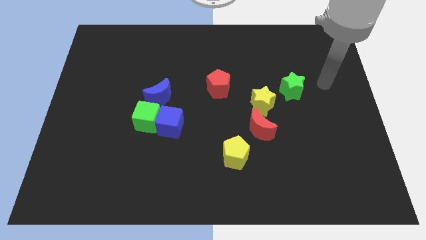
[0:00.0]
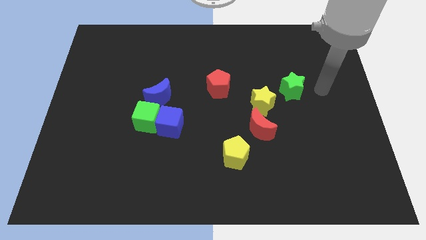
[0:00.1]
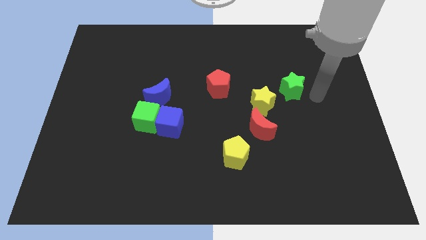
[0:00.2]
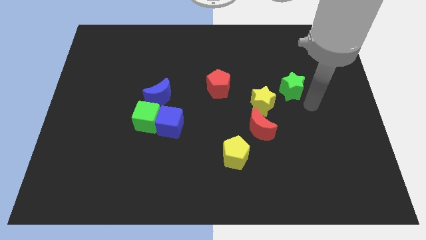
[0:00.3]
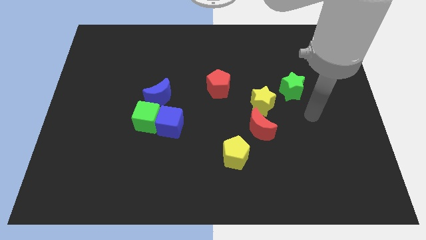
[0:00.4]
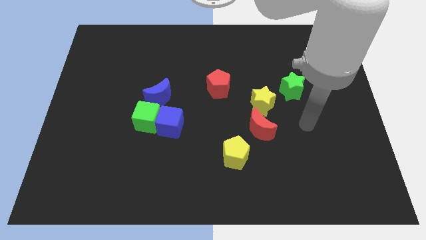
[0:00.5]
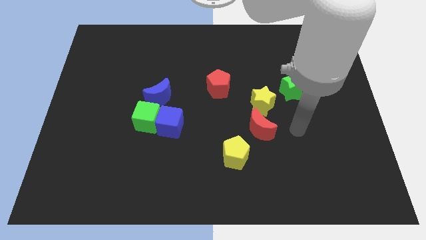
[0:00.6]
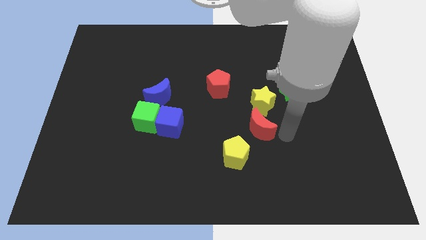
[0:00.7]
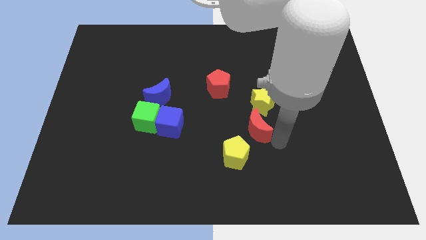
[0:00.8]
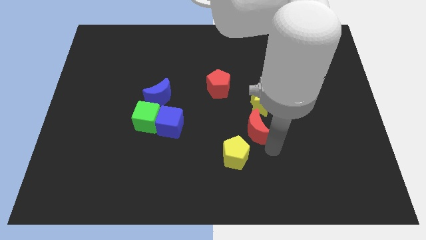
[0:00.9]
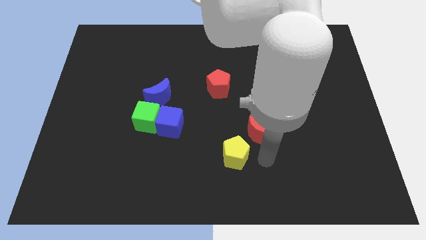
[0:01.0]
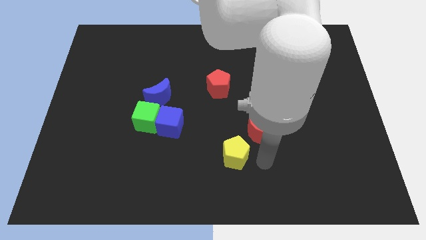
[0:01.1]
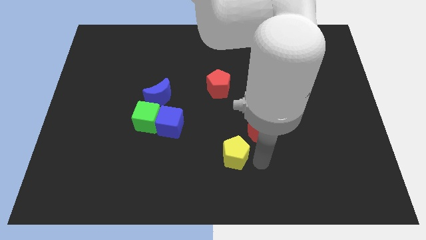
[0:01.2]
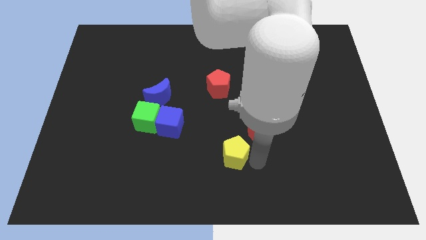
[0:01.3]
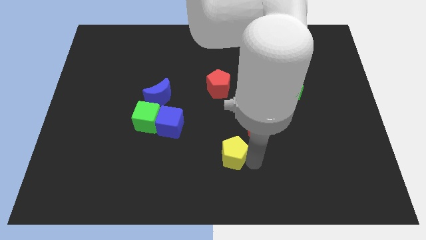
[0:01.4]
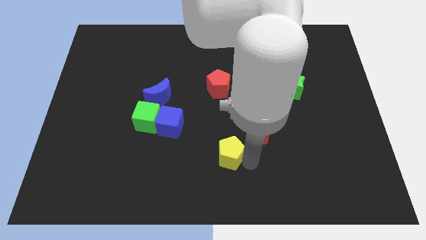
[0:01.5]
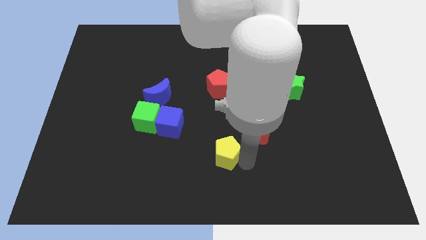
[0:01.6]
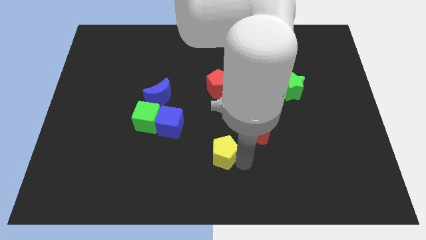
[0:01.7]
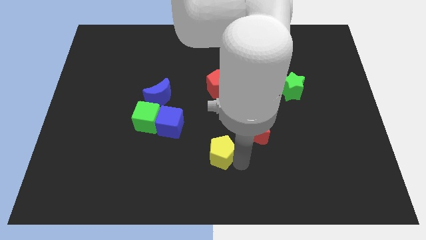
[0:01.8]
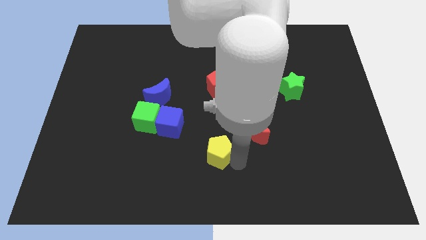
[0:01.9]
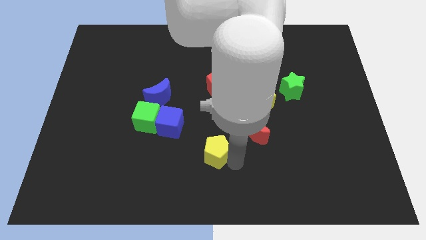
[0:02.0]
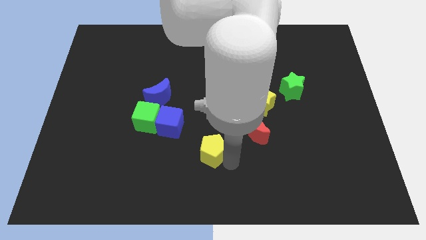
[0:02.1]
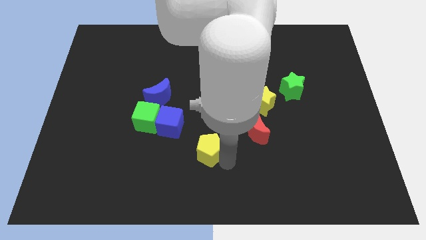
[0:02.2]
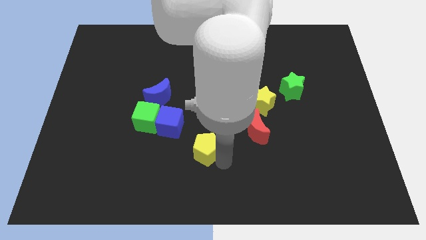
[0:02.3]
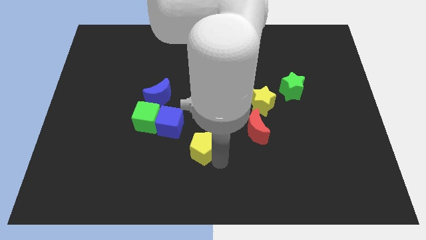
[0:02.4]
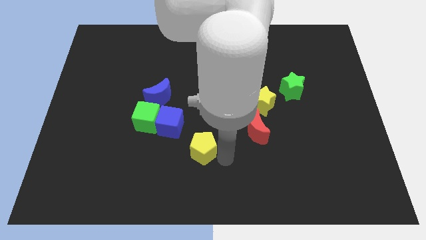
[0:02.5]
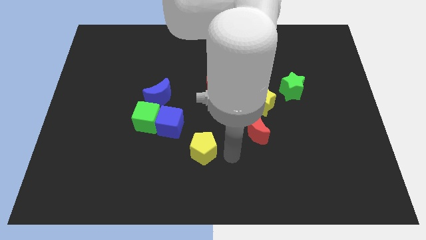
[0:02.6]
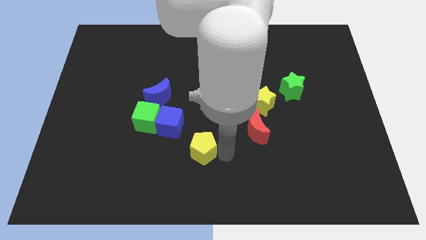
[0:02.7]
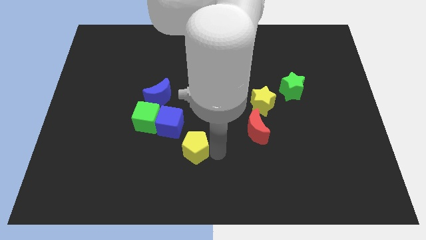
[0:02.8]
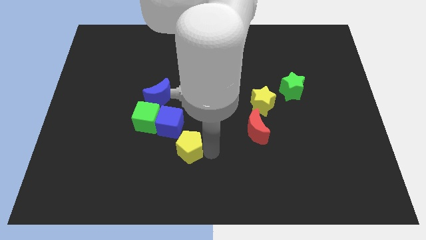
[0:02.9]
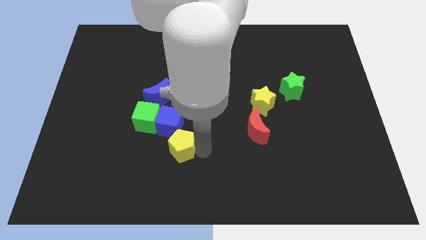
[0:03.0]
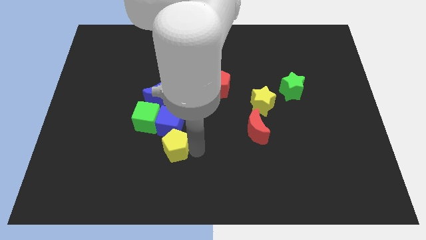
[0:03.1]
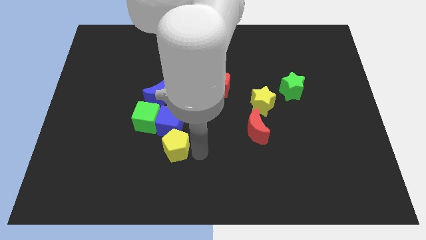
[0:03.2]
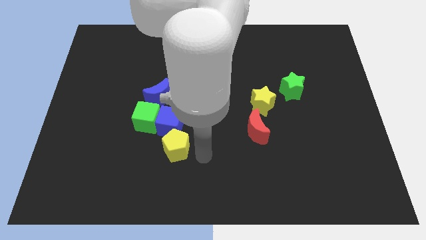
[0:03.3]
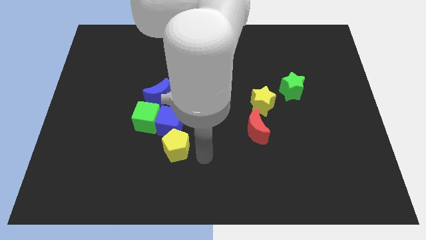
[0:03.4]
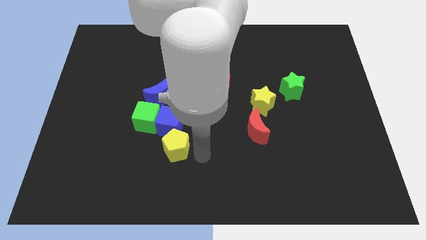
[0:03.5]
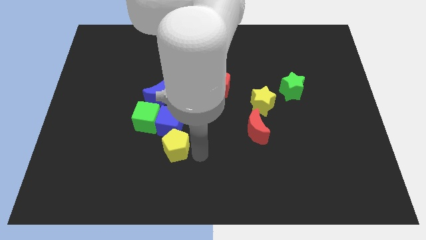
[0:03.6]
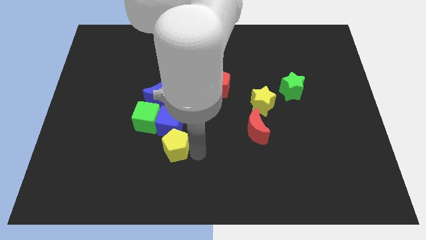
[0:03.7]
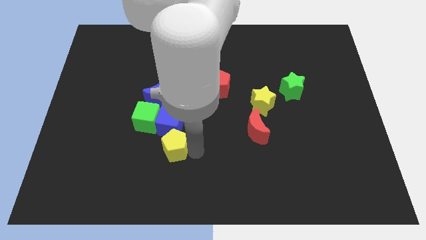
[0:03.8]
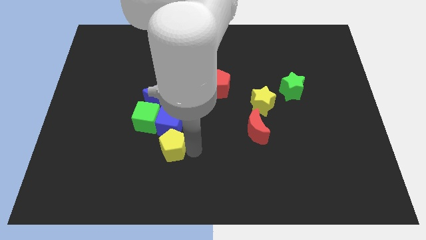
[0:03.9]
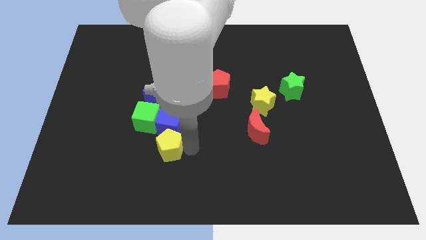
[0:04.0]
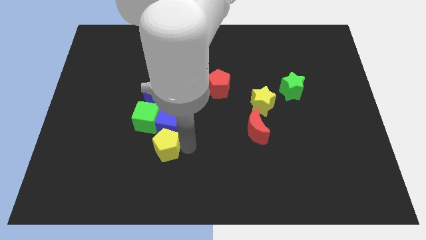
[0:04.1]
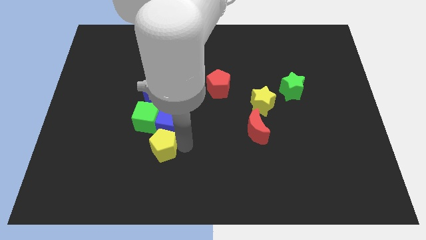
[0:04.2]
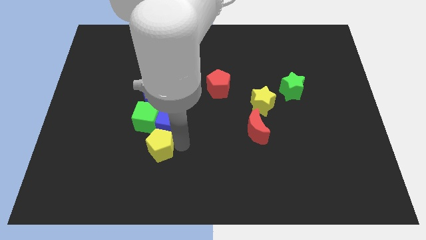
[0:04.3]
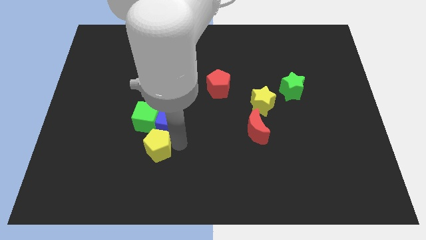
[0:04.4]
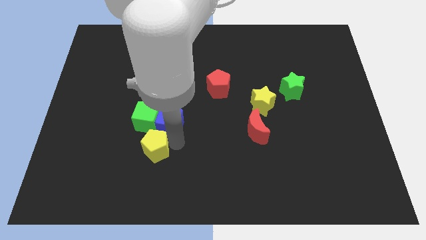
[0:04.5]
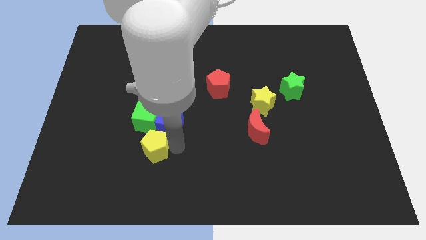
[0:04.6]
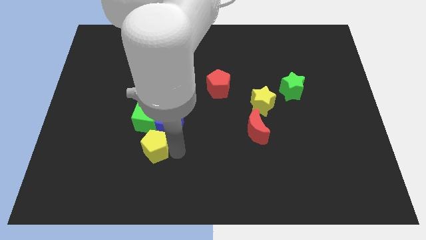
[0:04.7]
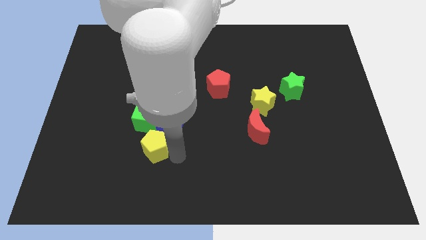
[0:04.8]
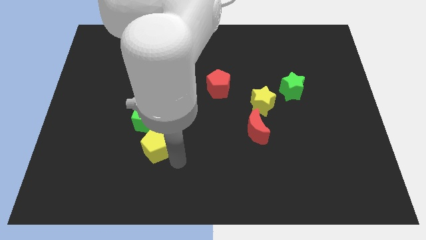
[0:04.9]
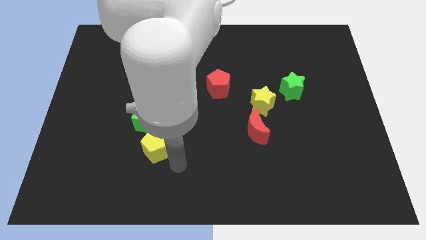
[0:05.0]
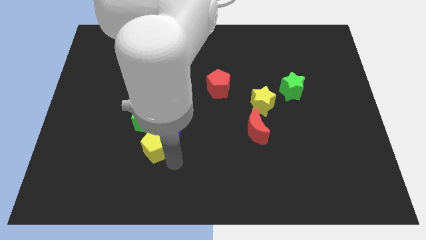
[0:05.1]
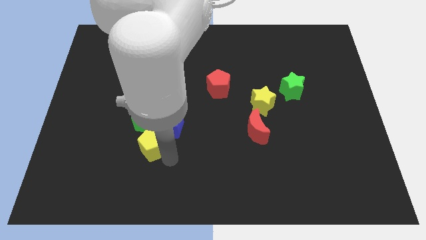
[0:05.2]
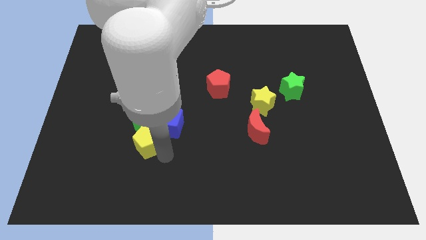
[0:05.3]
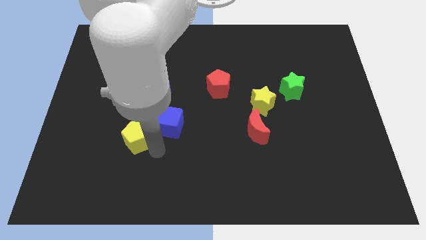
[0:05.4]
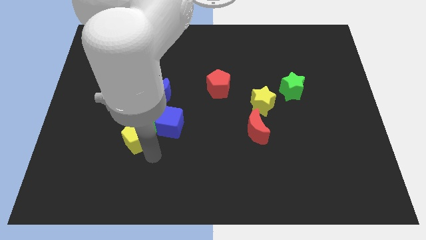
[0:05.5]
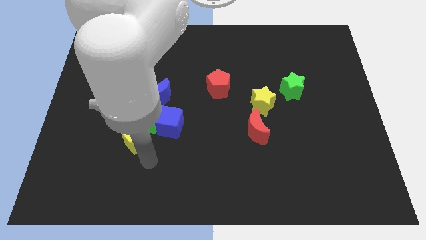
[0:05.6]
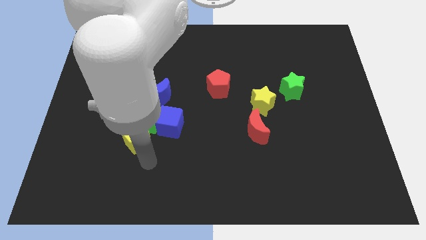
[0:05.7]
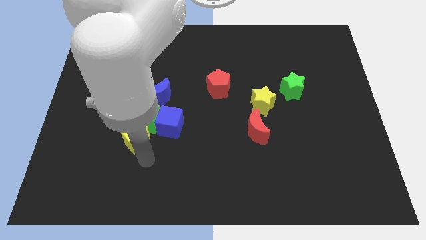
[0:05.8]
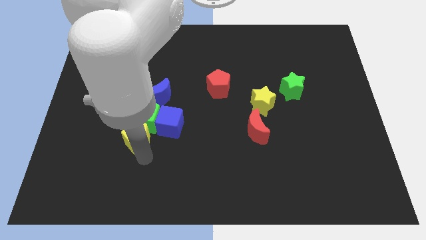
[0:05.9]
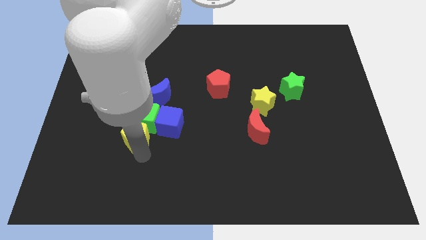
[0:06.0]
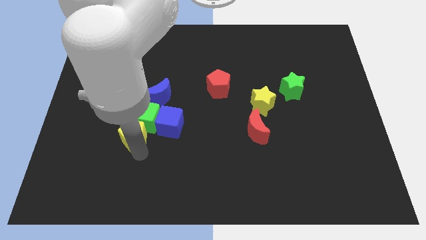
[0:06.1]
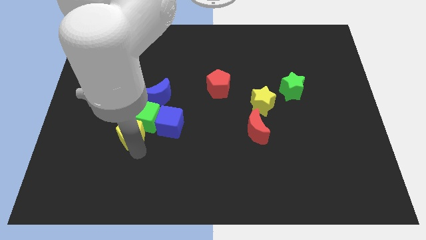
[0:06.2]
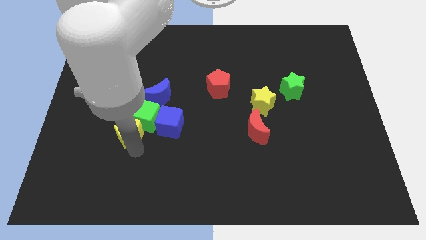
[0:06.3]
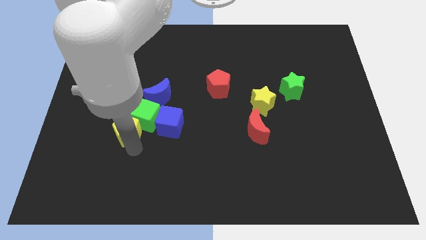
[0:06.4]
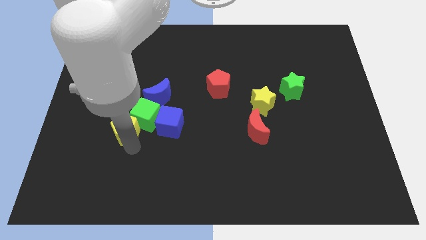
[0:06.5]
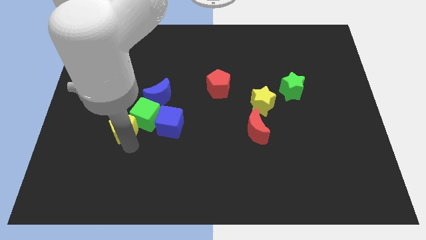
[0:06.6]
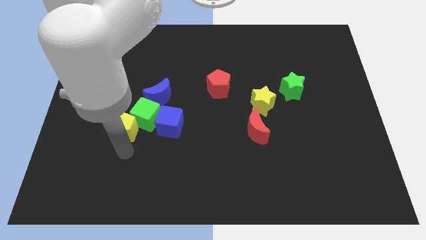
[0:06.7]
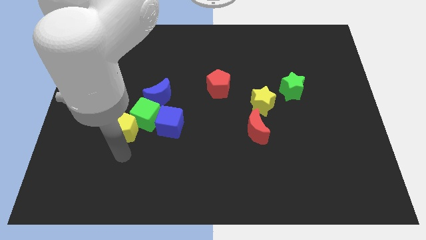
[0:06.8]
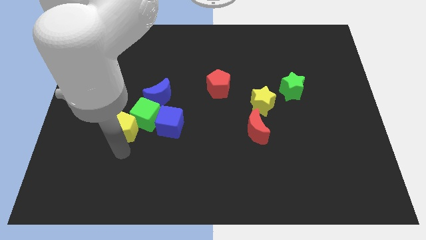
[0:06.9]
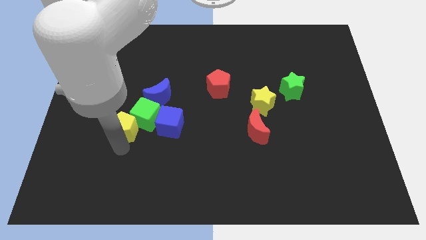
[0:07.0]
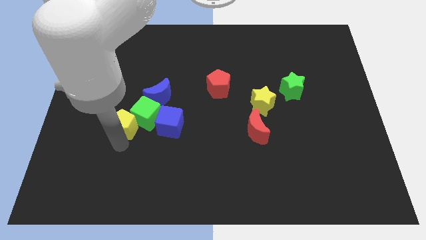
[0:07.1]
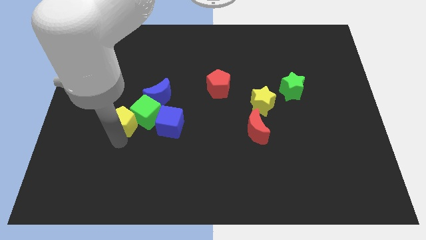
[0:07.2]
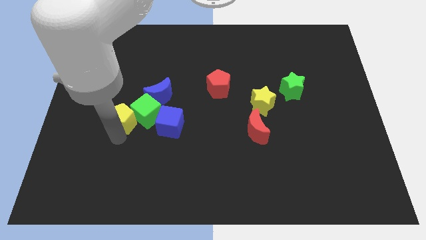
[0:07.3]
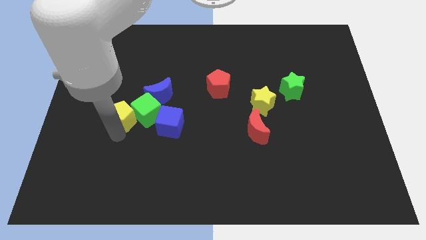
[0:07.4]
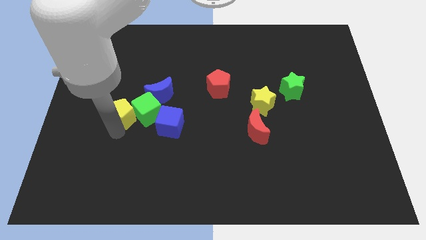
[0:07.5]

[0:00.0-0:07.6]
put the yellow pentagon to the top left of the green cube
